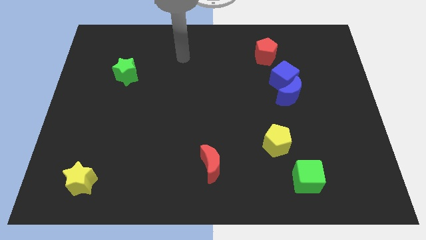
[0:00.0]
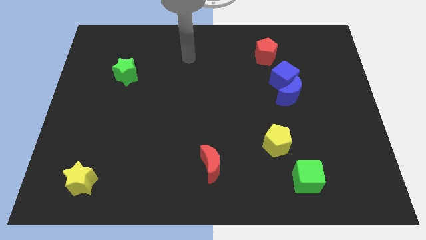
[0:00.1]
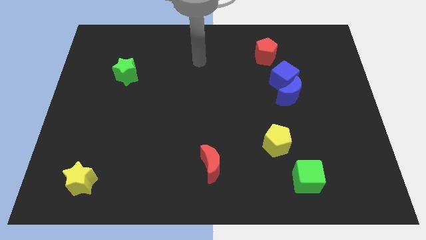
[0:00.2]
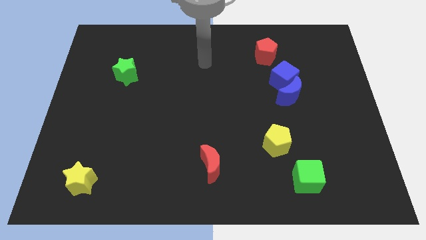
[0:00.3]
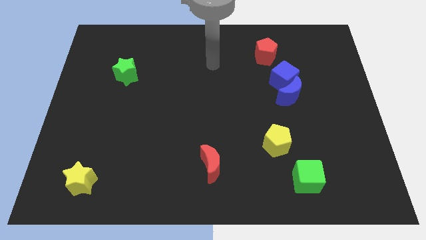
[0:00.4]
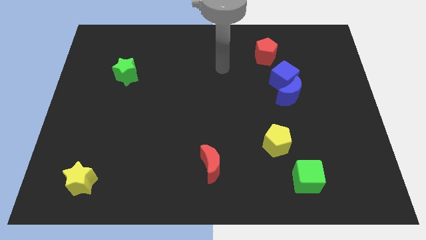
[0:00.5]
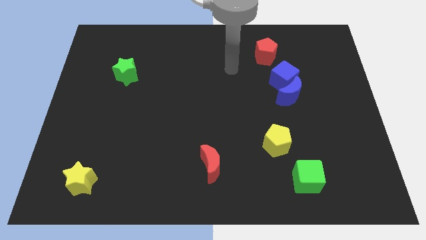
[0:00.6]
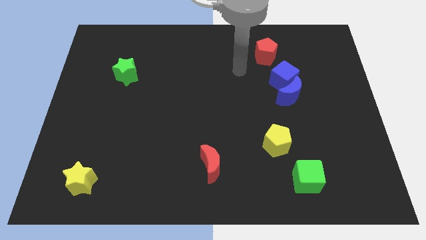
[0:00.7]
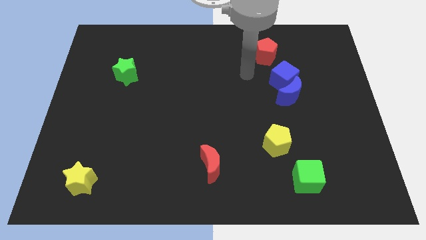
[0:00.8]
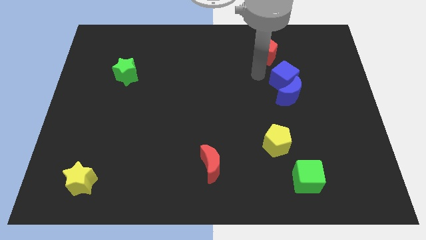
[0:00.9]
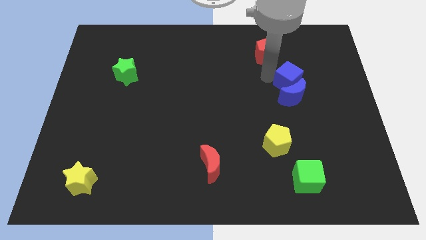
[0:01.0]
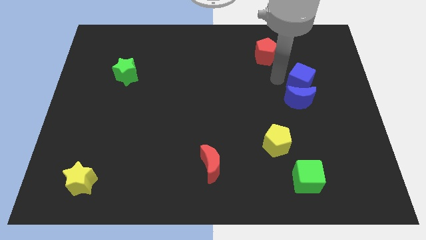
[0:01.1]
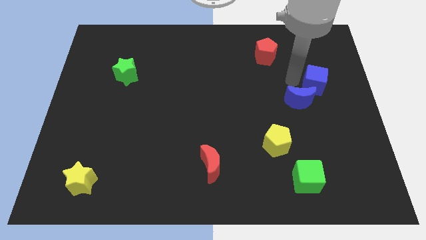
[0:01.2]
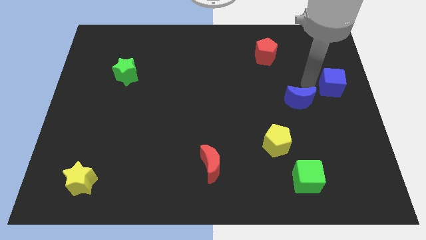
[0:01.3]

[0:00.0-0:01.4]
move the blue moon away from the blue cube

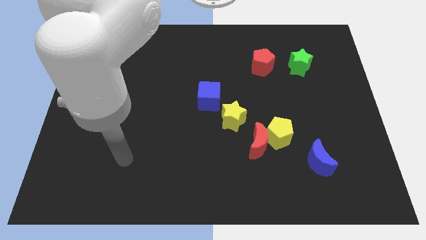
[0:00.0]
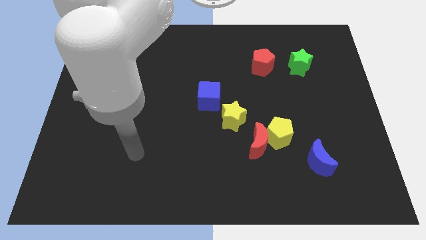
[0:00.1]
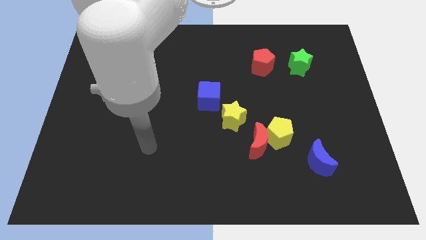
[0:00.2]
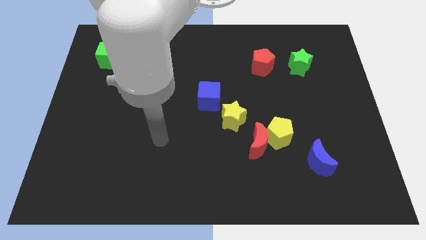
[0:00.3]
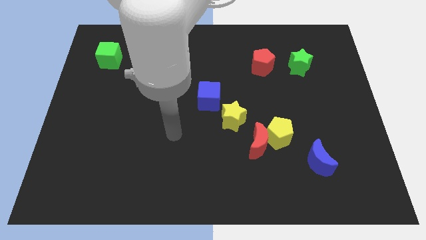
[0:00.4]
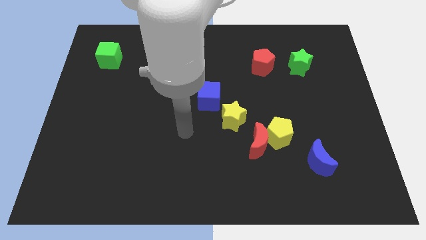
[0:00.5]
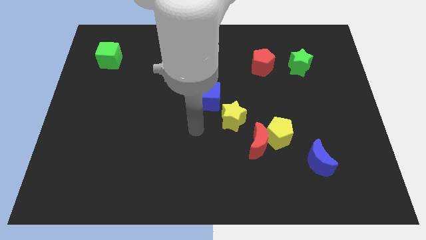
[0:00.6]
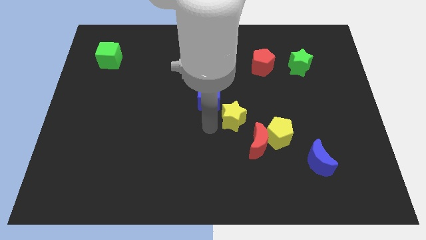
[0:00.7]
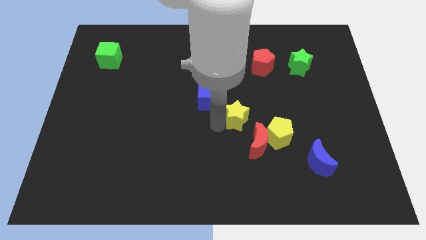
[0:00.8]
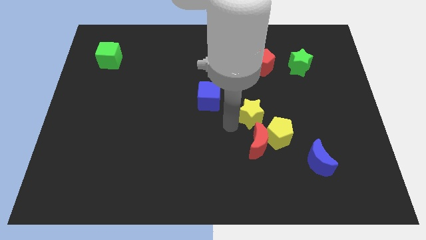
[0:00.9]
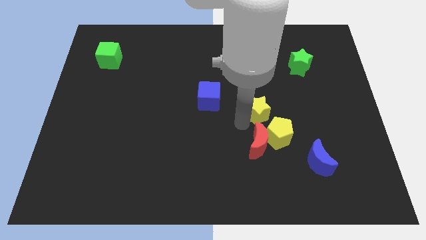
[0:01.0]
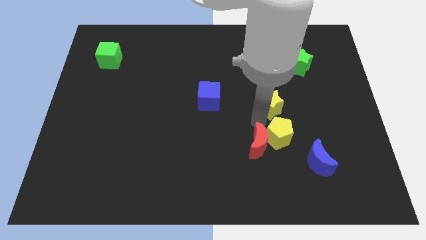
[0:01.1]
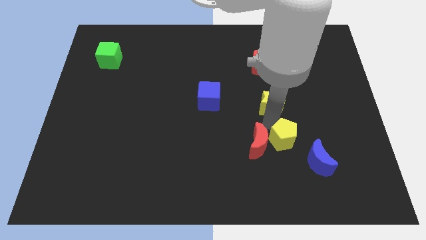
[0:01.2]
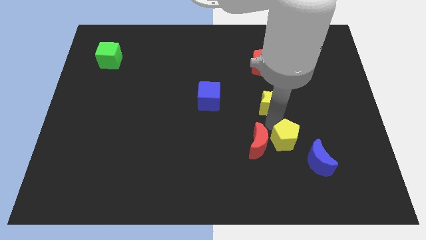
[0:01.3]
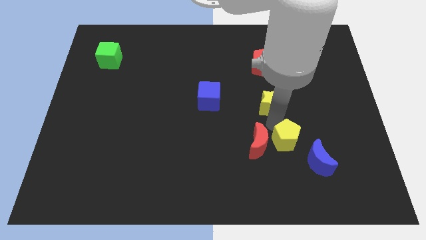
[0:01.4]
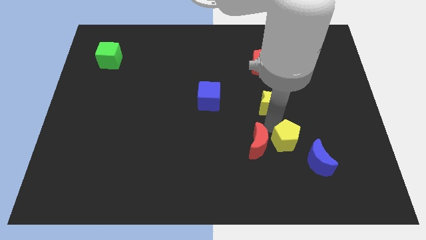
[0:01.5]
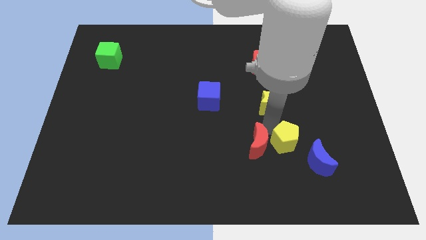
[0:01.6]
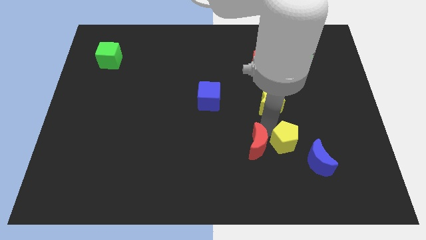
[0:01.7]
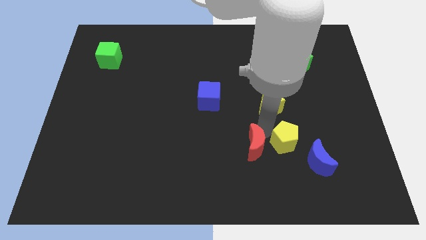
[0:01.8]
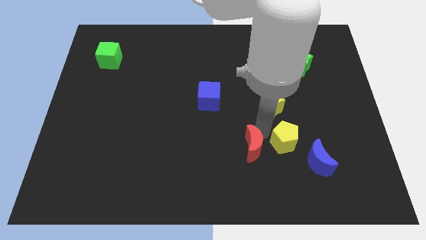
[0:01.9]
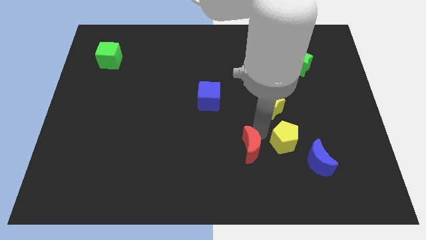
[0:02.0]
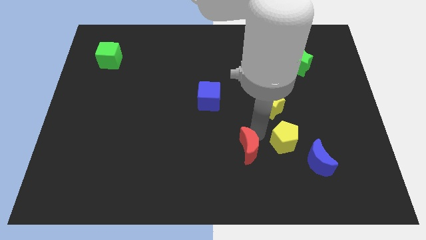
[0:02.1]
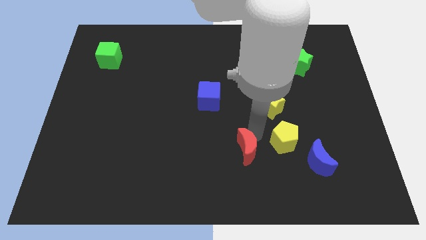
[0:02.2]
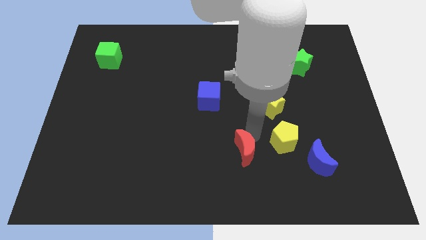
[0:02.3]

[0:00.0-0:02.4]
separate the red moon from the yellow pentagon and yellow star

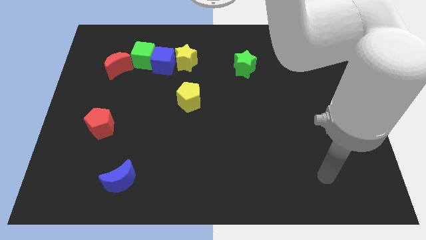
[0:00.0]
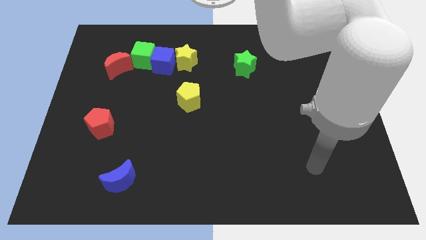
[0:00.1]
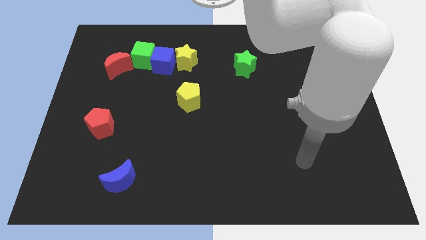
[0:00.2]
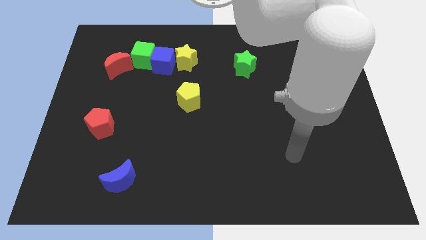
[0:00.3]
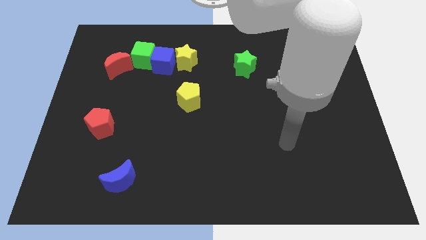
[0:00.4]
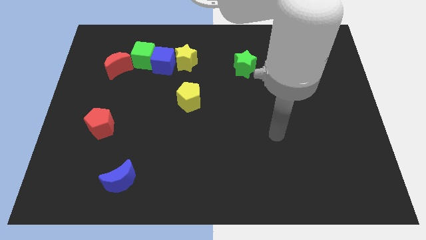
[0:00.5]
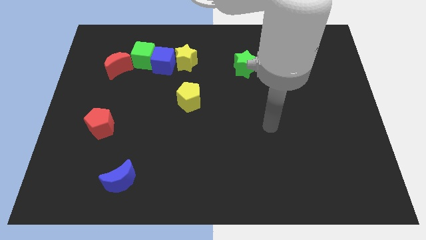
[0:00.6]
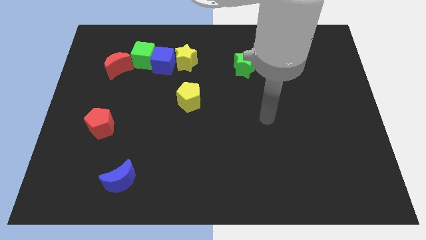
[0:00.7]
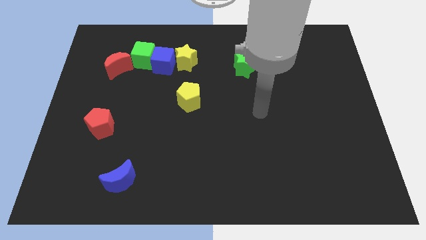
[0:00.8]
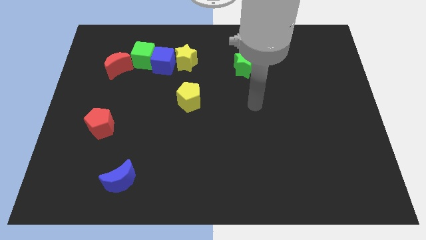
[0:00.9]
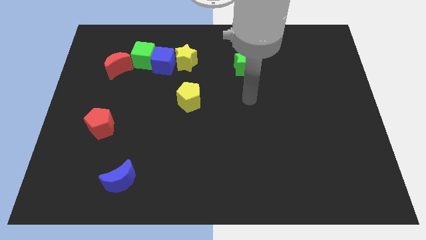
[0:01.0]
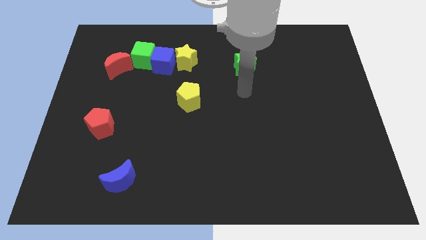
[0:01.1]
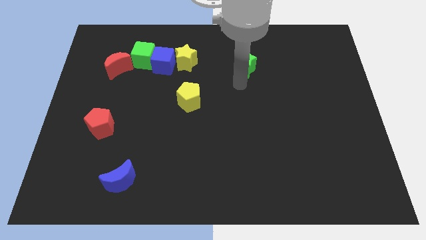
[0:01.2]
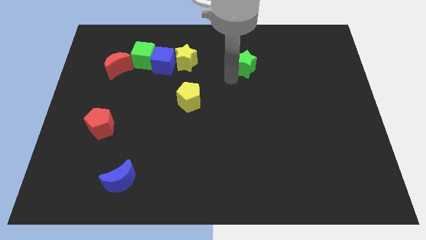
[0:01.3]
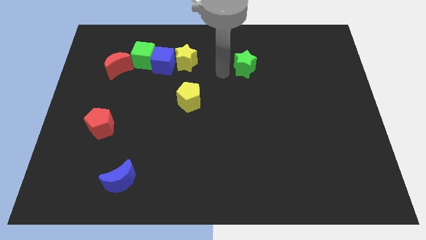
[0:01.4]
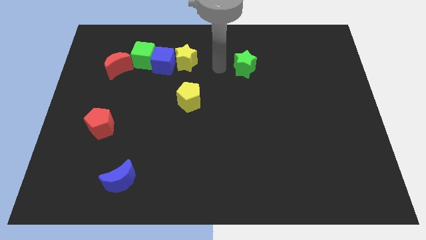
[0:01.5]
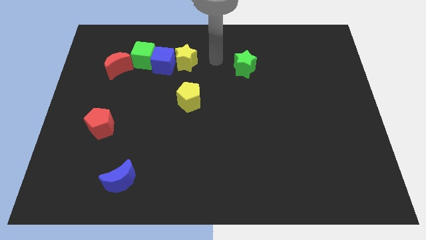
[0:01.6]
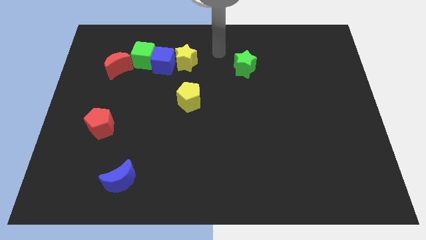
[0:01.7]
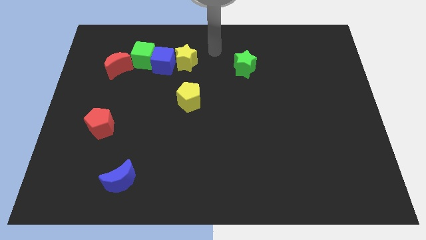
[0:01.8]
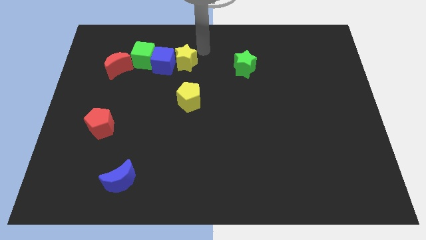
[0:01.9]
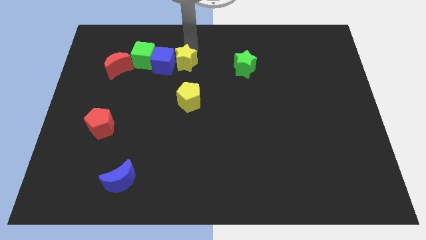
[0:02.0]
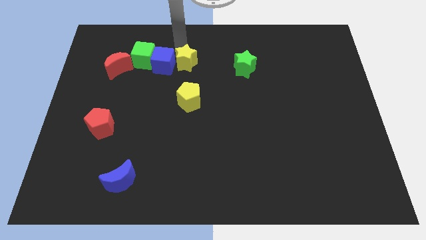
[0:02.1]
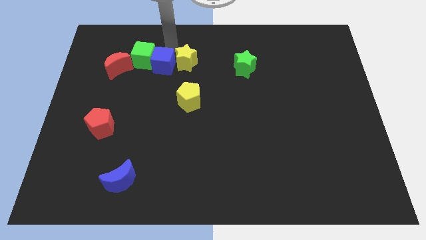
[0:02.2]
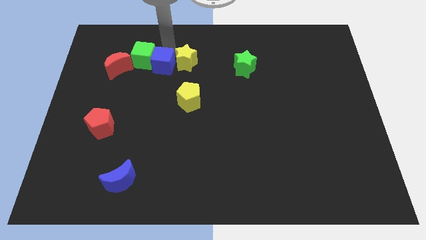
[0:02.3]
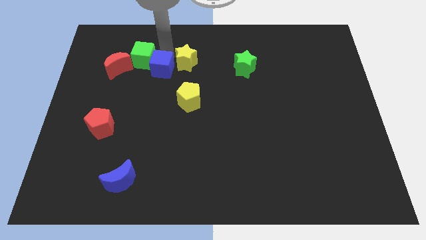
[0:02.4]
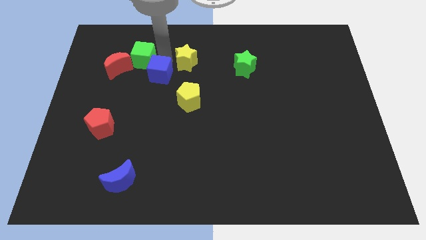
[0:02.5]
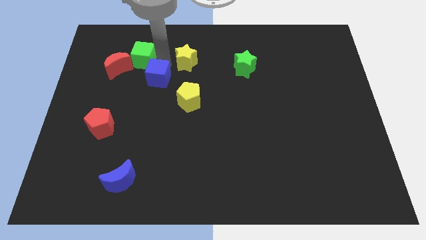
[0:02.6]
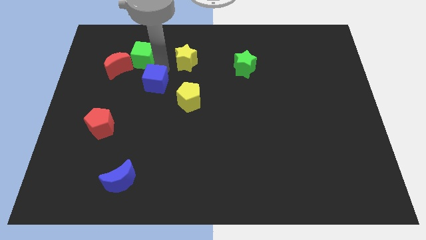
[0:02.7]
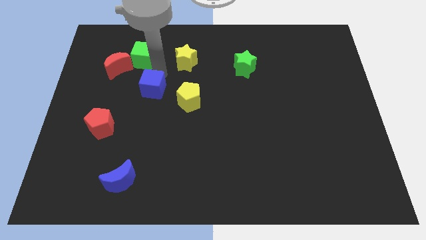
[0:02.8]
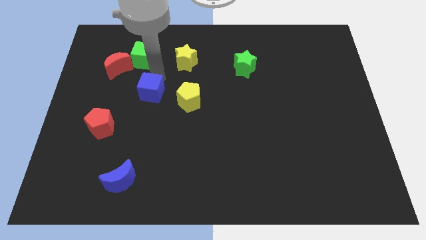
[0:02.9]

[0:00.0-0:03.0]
move the blue cube away from the green cube and yellow star

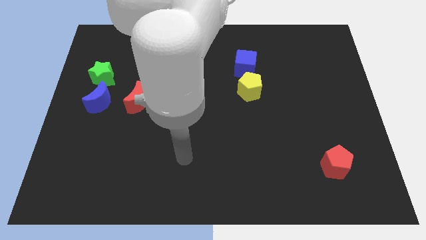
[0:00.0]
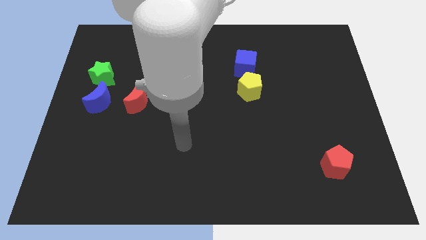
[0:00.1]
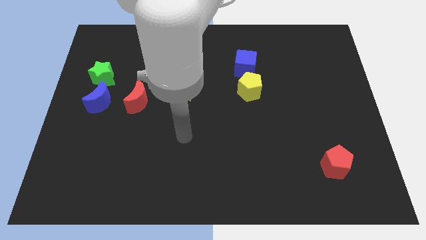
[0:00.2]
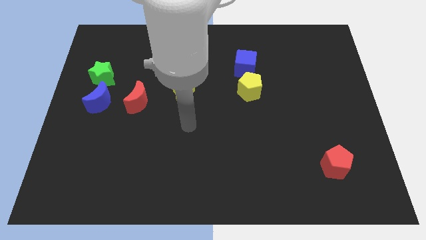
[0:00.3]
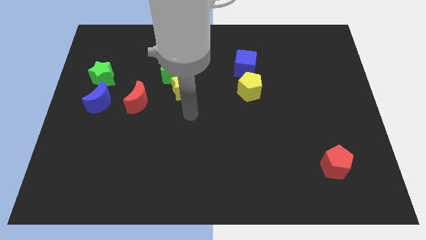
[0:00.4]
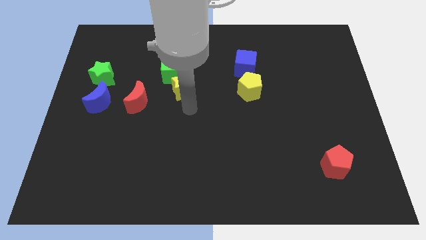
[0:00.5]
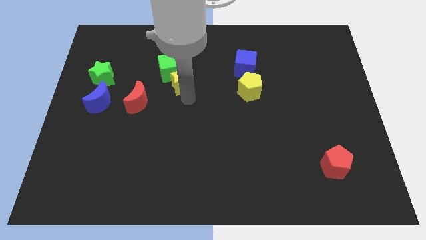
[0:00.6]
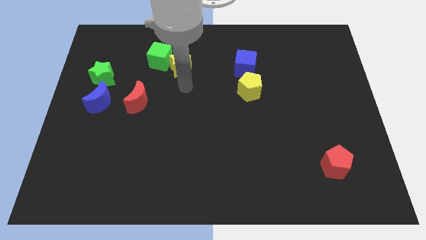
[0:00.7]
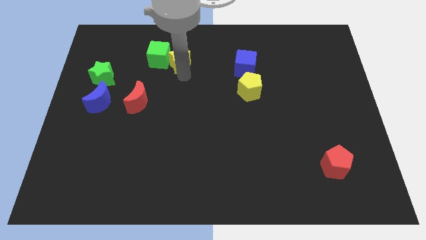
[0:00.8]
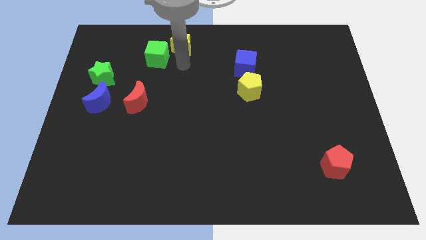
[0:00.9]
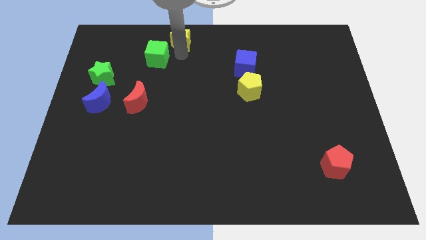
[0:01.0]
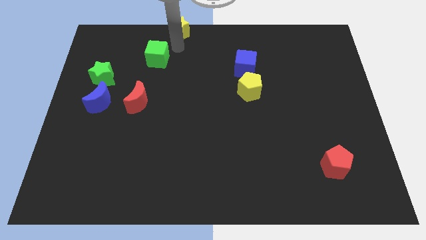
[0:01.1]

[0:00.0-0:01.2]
separate the green cube from the yellow star

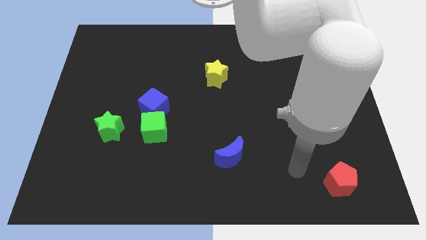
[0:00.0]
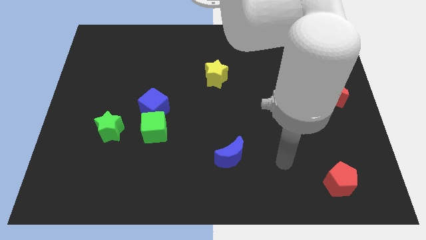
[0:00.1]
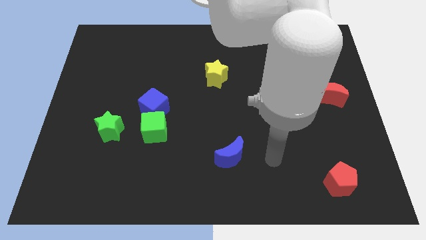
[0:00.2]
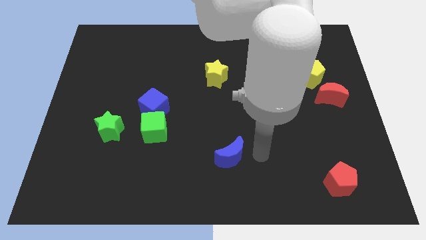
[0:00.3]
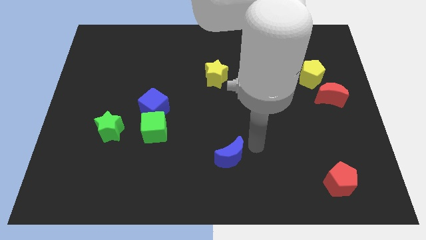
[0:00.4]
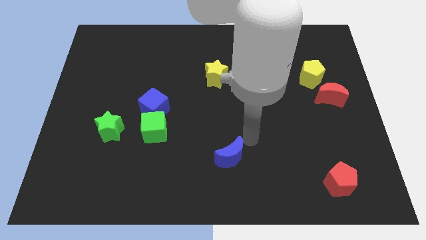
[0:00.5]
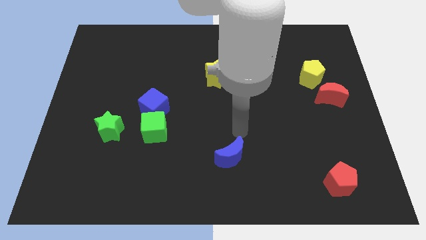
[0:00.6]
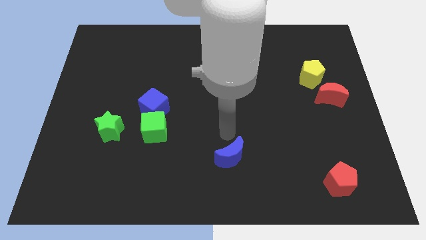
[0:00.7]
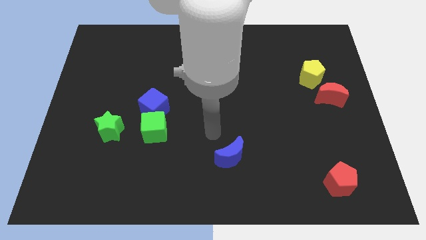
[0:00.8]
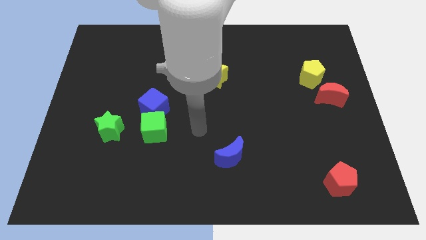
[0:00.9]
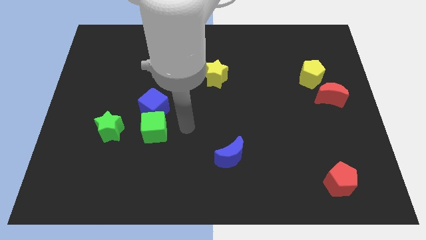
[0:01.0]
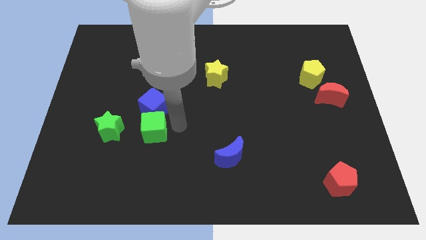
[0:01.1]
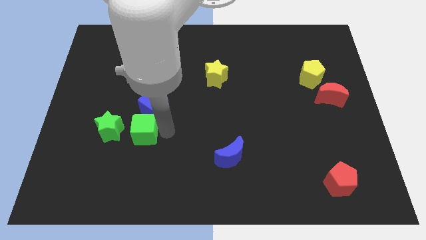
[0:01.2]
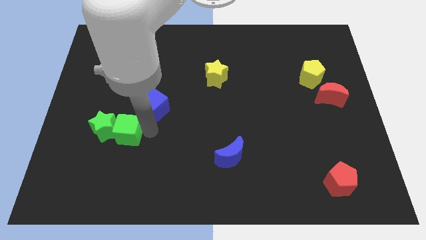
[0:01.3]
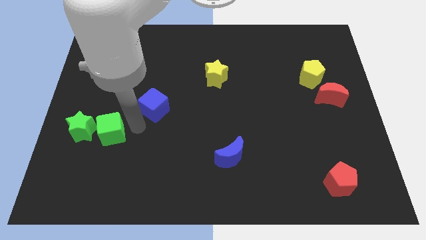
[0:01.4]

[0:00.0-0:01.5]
pull the blue cube apart from the green cube
